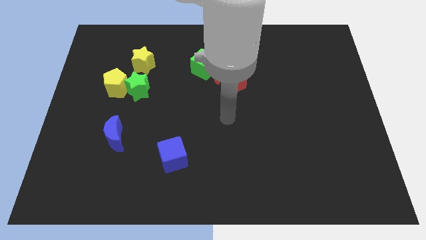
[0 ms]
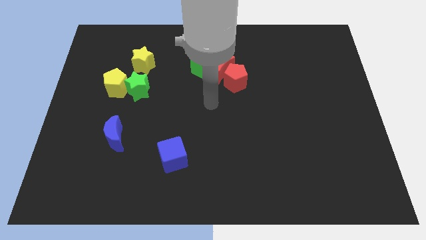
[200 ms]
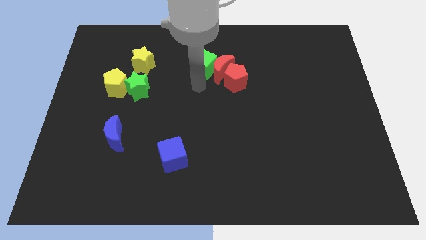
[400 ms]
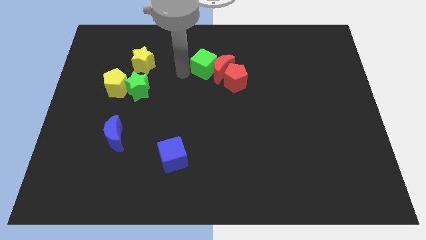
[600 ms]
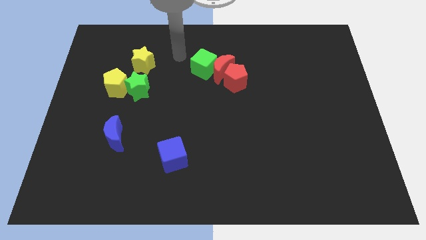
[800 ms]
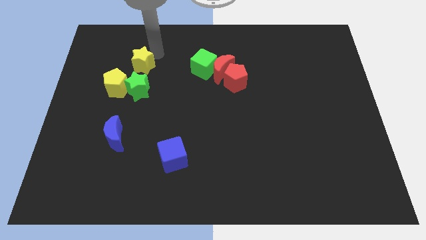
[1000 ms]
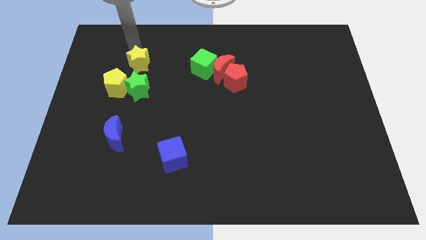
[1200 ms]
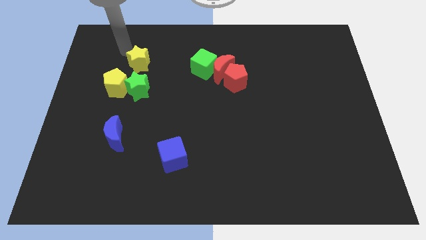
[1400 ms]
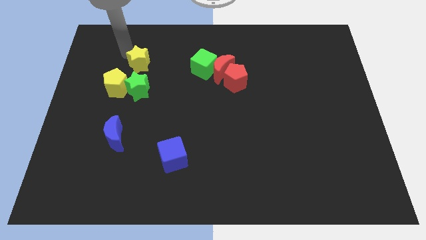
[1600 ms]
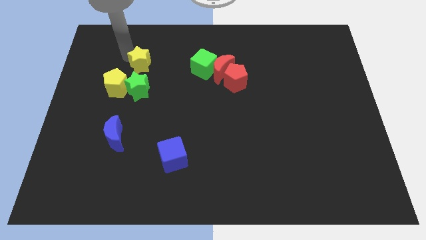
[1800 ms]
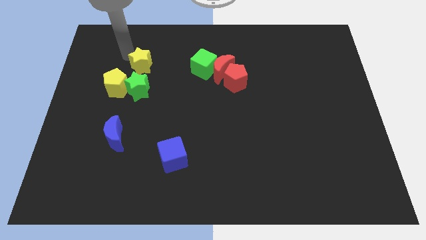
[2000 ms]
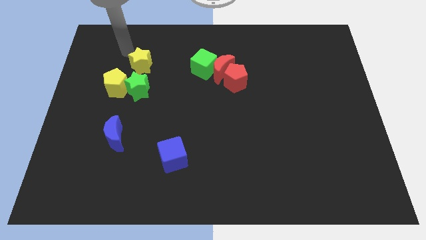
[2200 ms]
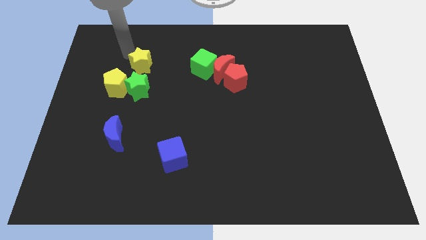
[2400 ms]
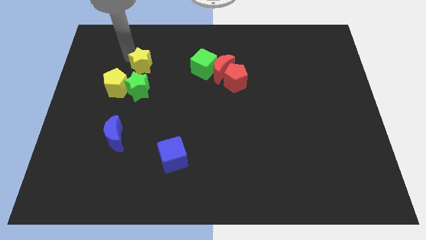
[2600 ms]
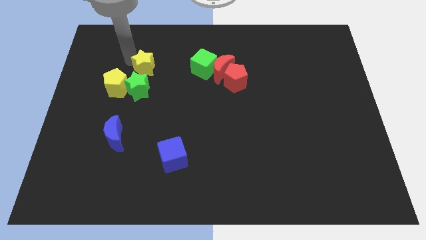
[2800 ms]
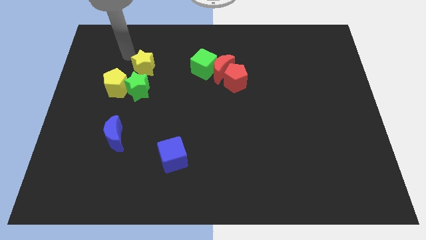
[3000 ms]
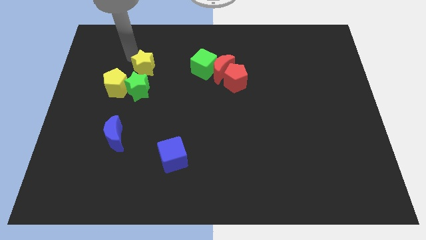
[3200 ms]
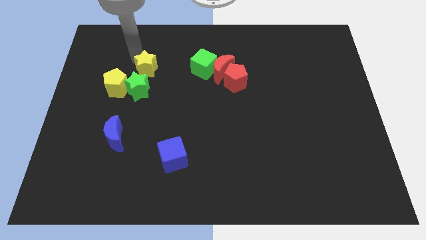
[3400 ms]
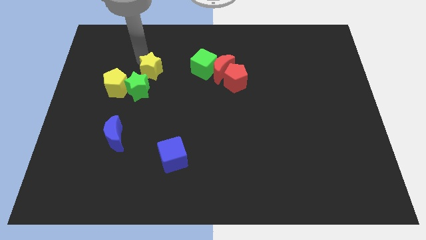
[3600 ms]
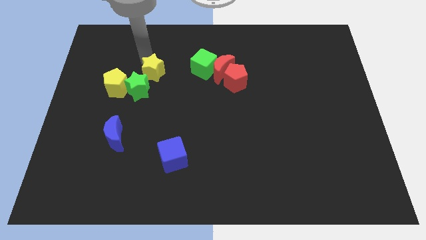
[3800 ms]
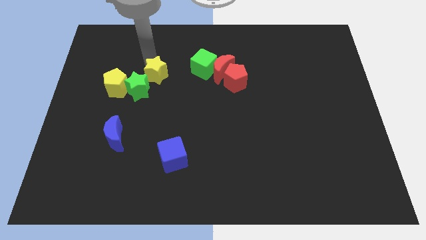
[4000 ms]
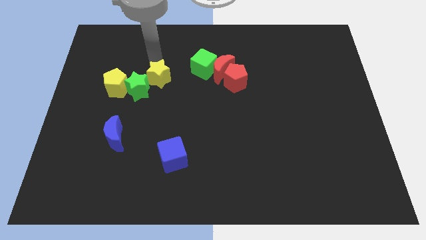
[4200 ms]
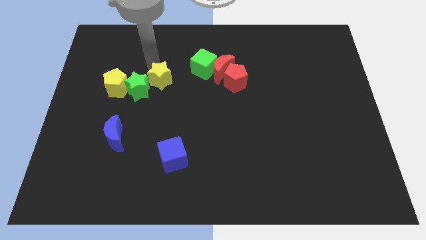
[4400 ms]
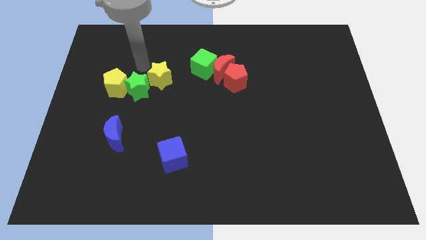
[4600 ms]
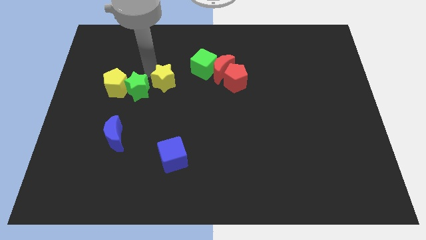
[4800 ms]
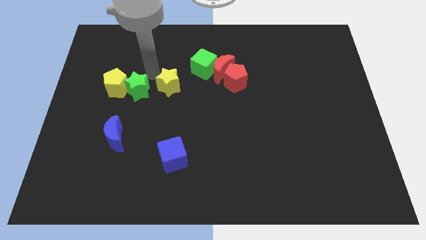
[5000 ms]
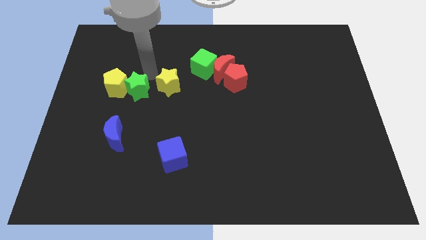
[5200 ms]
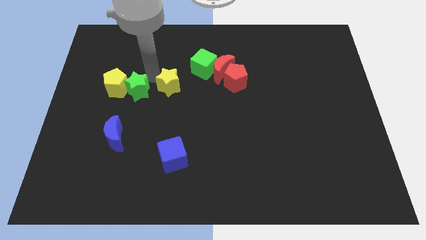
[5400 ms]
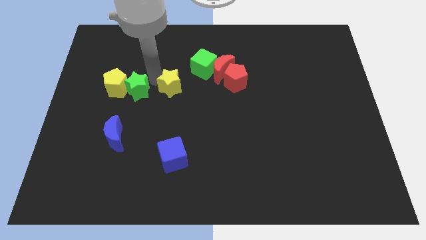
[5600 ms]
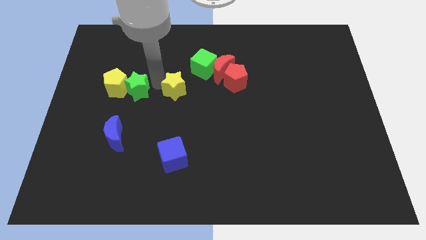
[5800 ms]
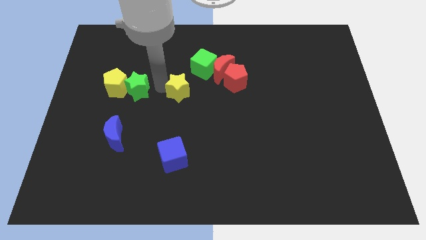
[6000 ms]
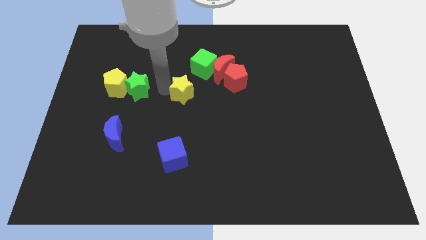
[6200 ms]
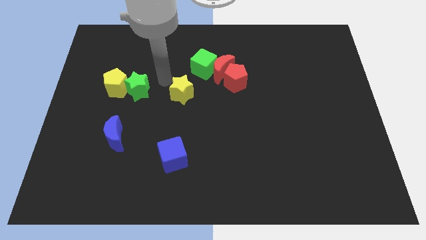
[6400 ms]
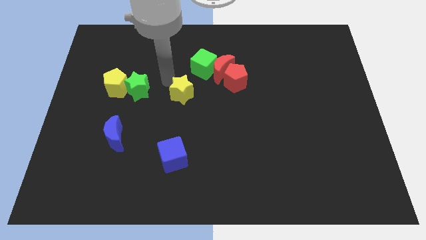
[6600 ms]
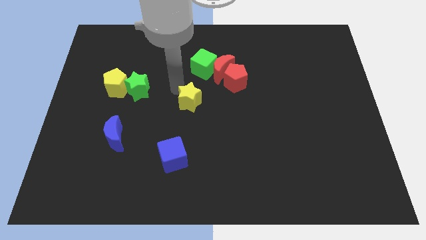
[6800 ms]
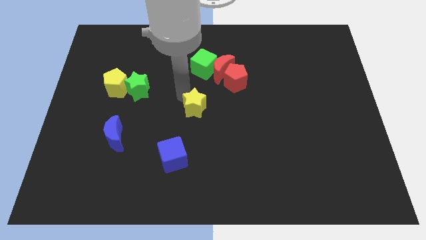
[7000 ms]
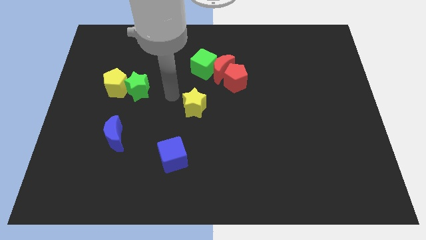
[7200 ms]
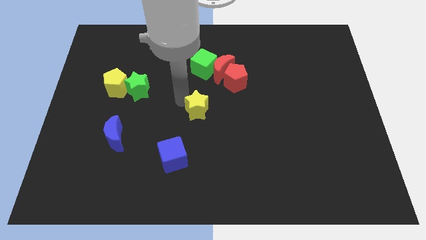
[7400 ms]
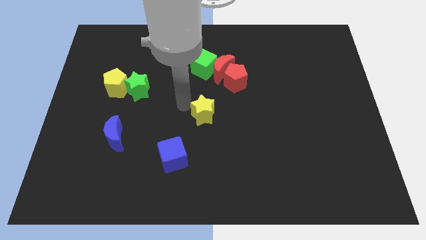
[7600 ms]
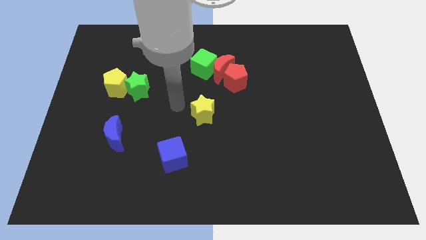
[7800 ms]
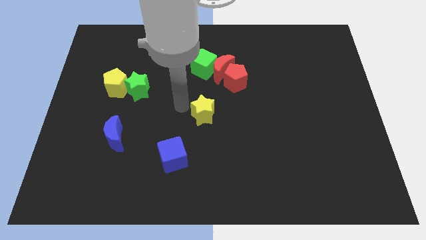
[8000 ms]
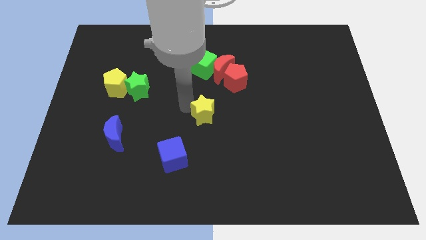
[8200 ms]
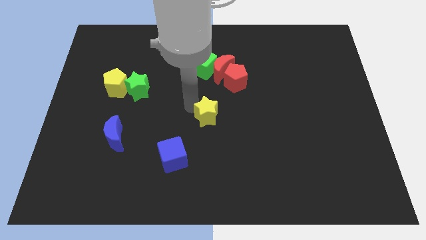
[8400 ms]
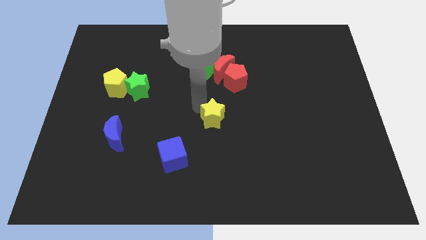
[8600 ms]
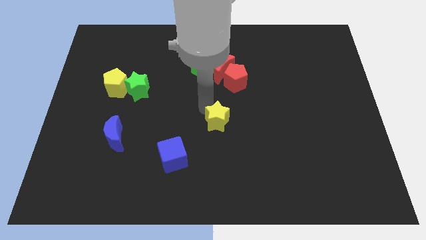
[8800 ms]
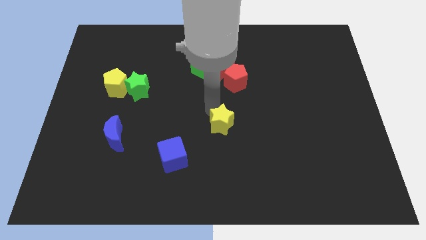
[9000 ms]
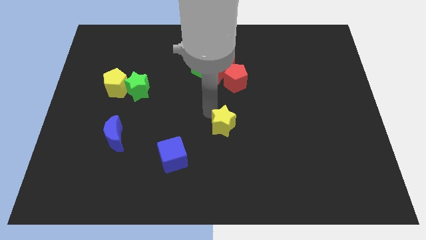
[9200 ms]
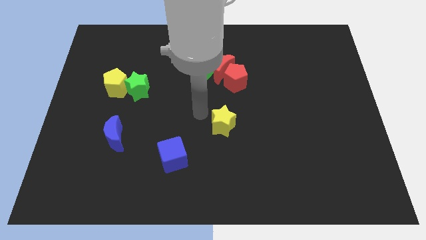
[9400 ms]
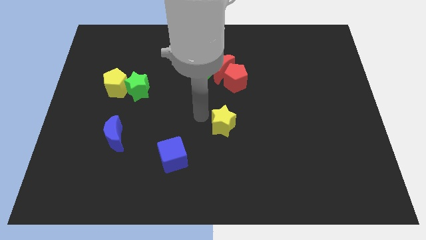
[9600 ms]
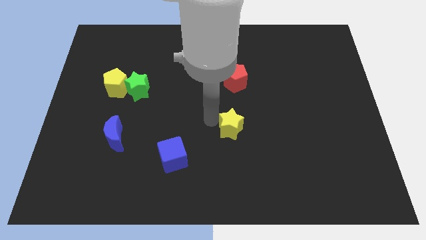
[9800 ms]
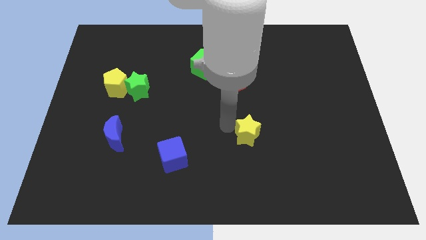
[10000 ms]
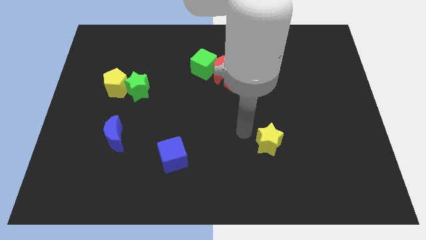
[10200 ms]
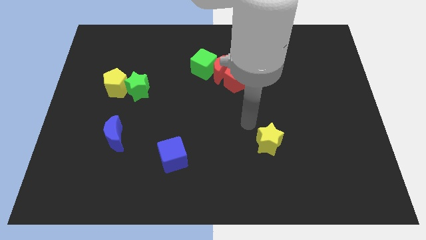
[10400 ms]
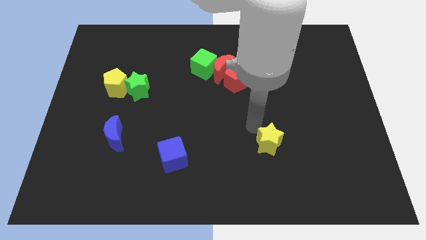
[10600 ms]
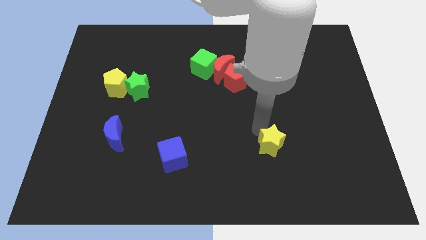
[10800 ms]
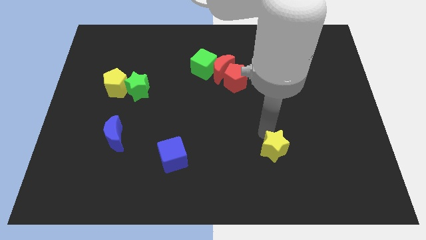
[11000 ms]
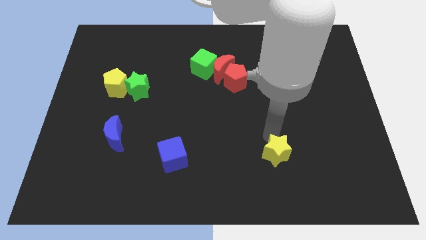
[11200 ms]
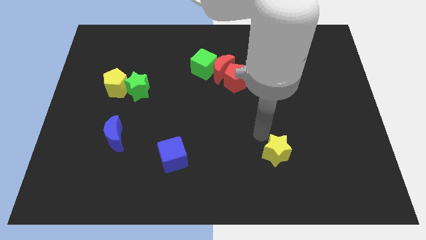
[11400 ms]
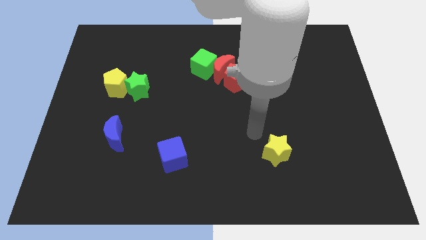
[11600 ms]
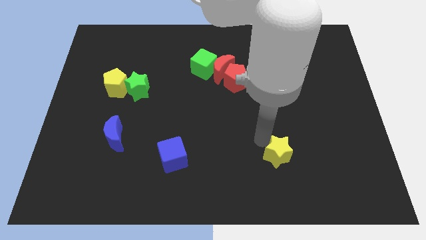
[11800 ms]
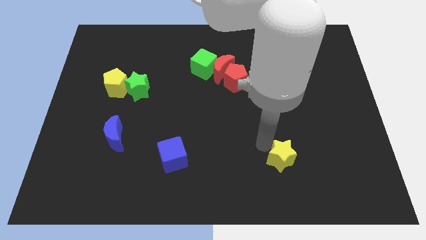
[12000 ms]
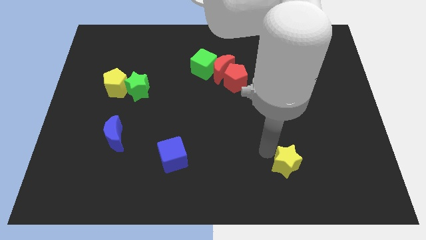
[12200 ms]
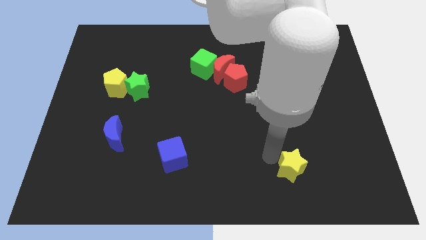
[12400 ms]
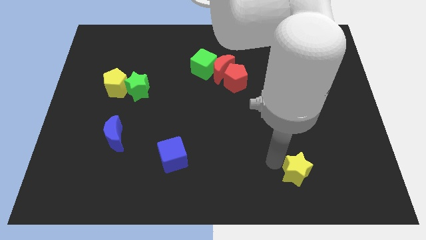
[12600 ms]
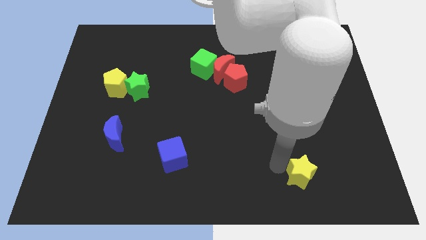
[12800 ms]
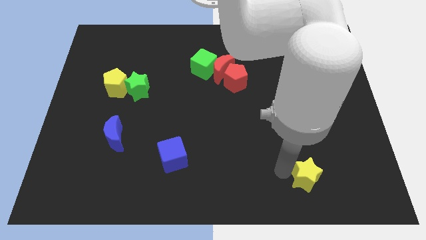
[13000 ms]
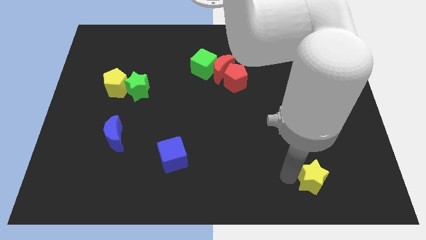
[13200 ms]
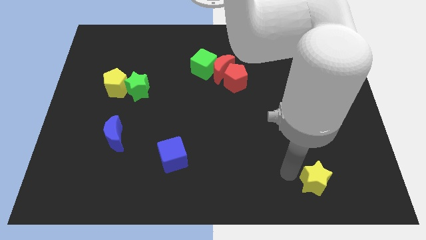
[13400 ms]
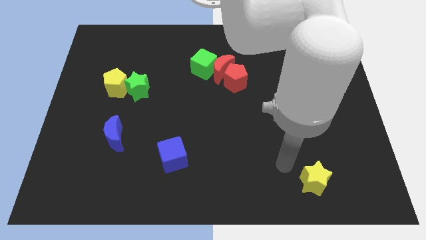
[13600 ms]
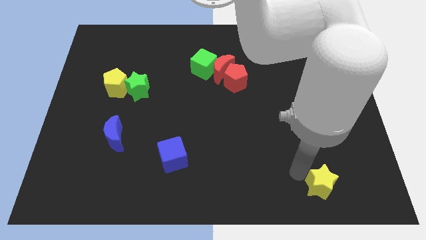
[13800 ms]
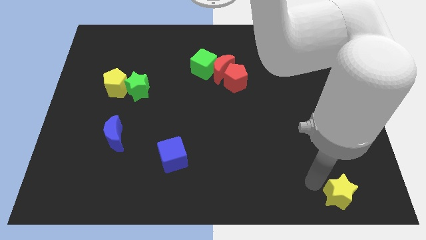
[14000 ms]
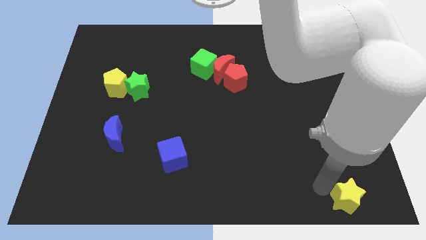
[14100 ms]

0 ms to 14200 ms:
slide the yellow star to the bottom right corner
